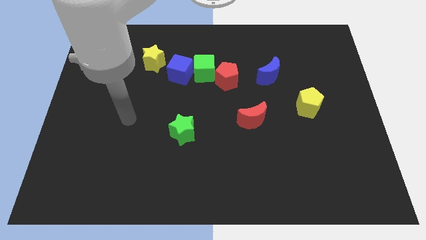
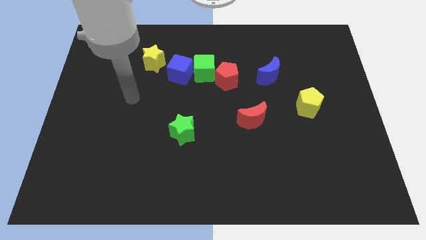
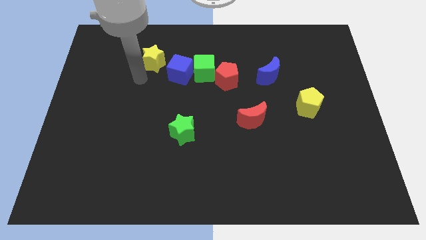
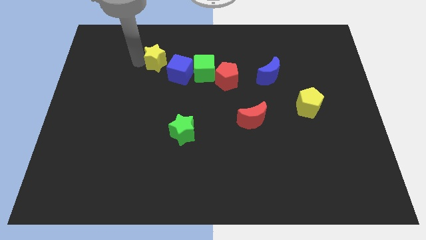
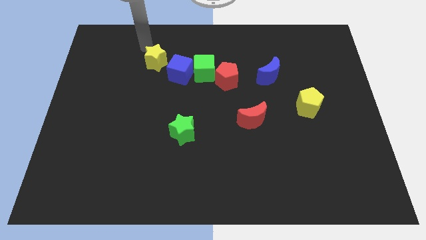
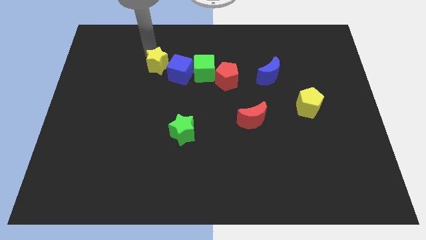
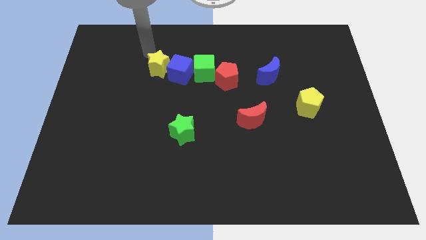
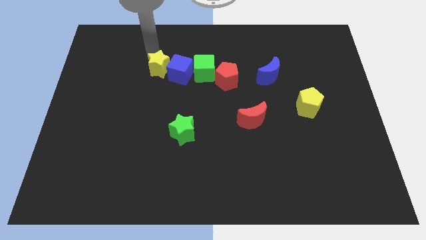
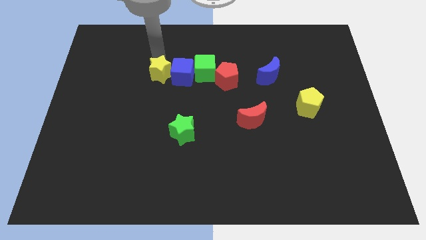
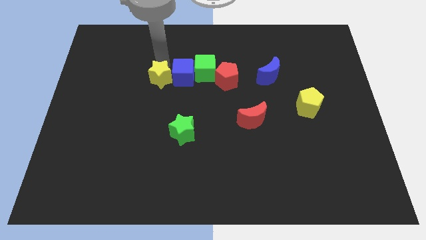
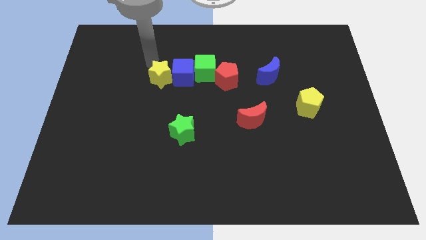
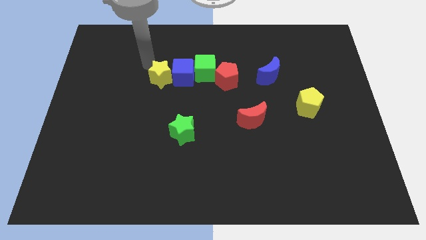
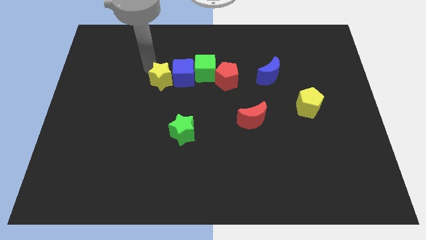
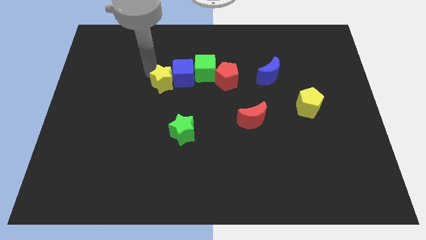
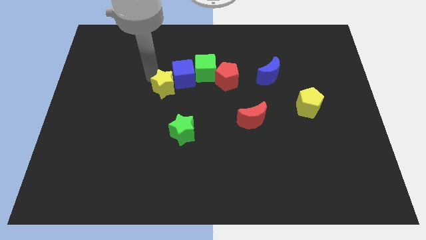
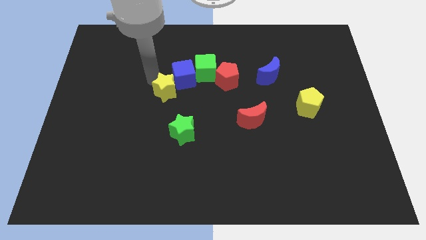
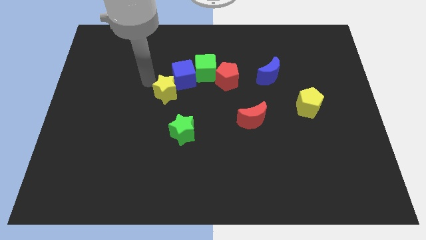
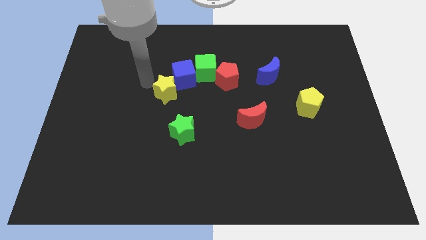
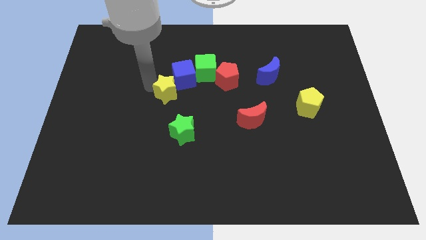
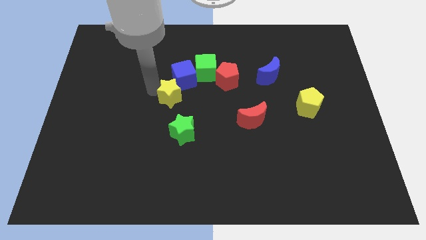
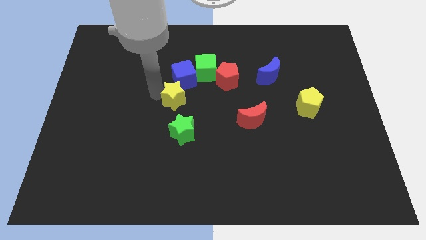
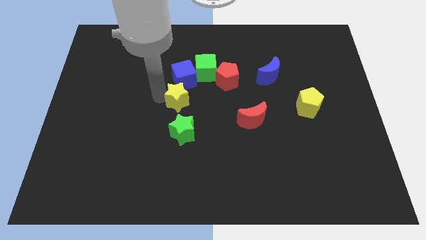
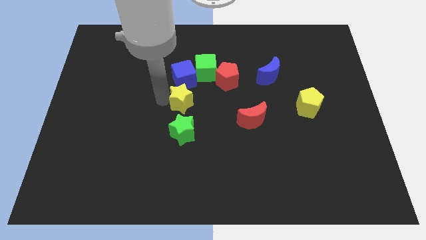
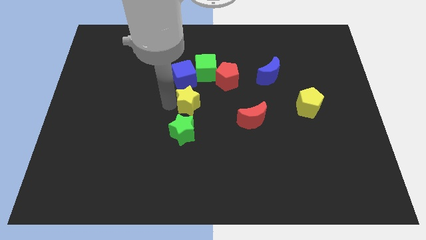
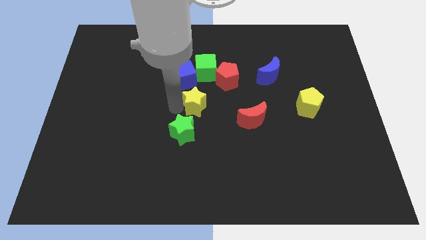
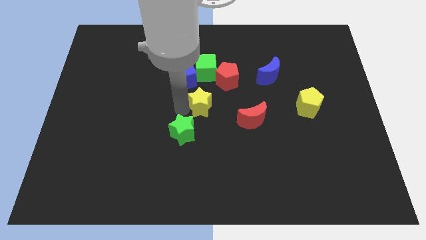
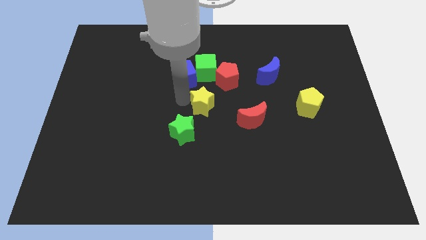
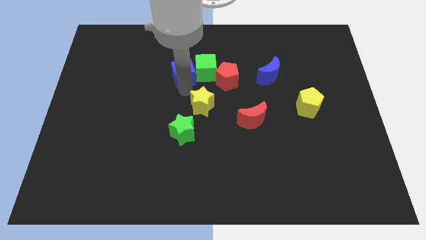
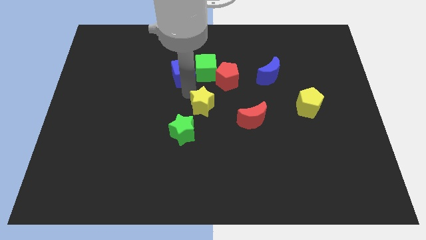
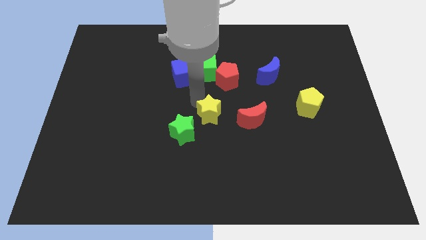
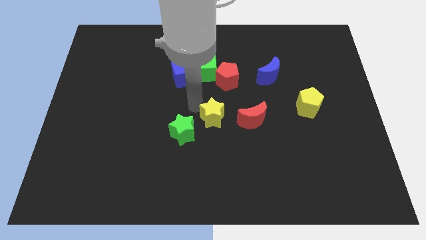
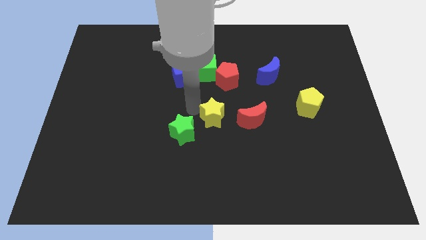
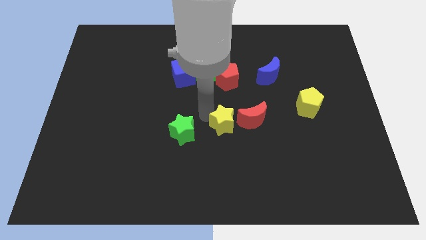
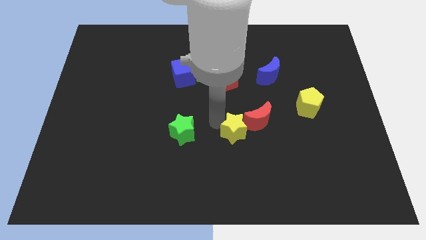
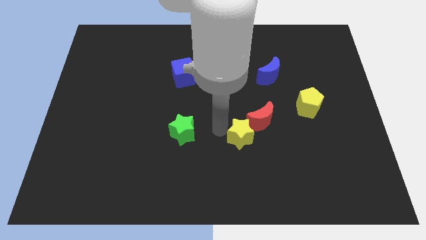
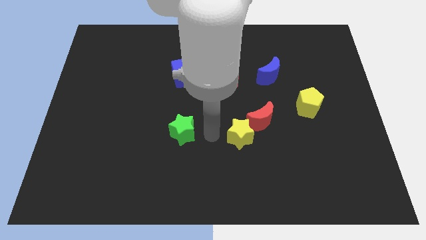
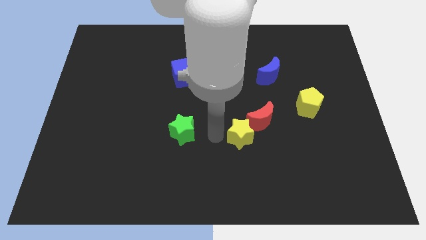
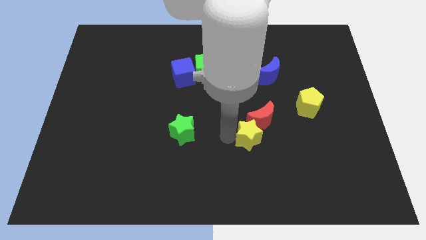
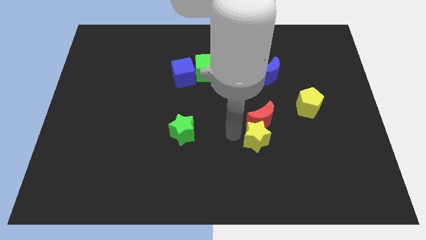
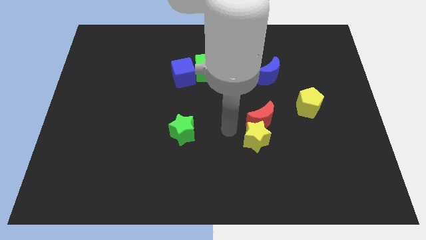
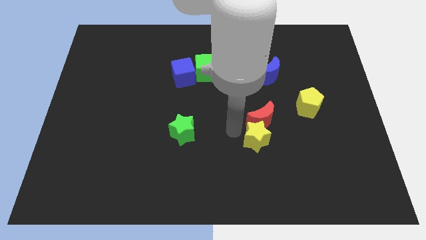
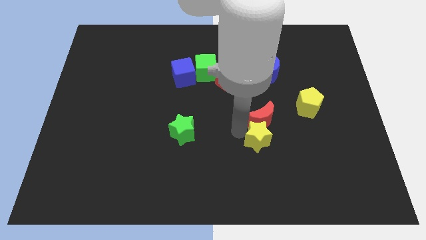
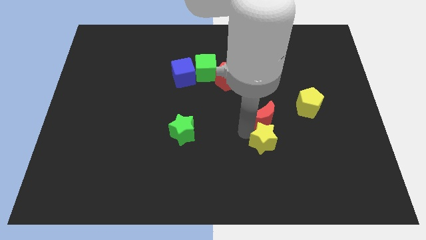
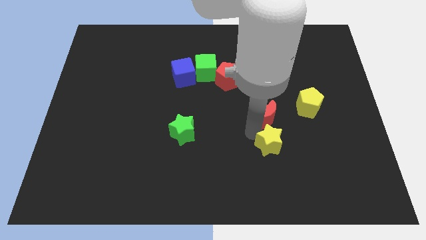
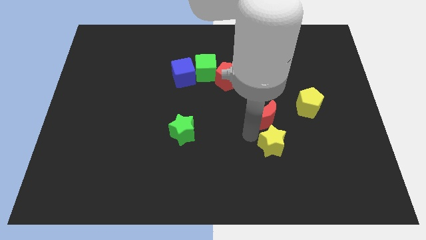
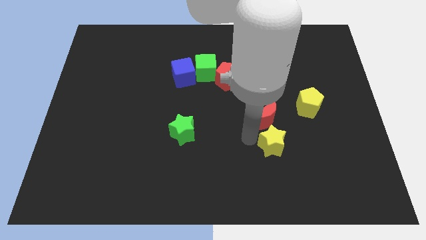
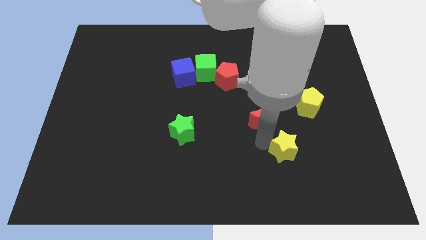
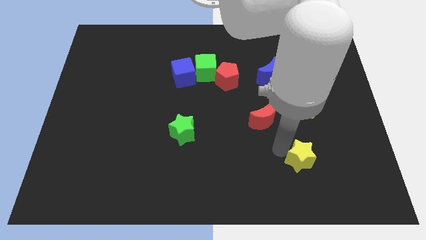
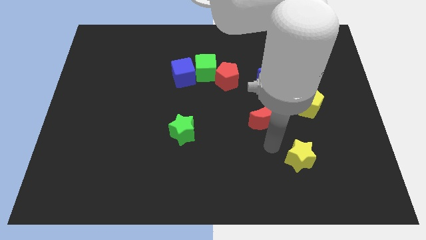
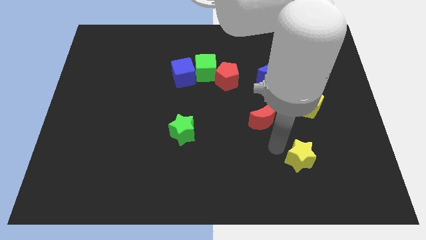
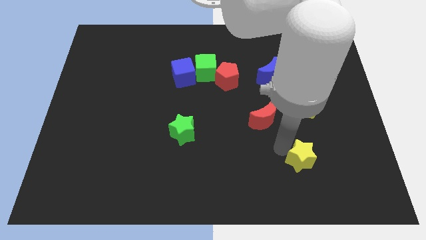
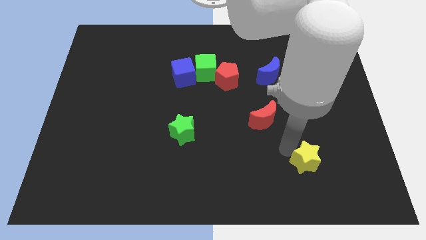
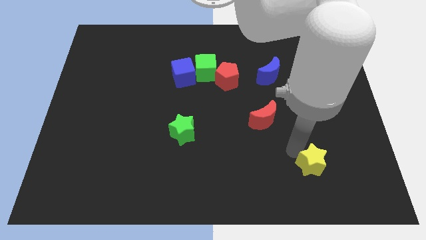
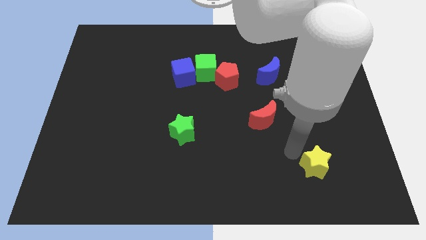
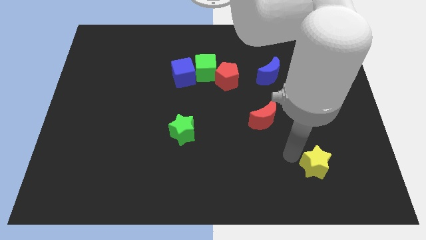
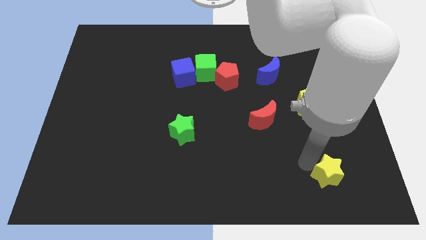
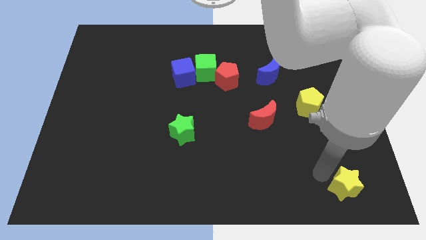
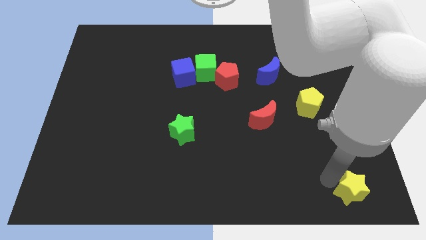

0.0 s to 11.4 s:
slide the yellow star to the lower right corner

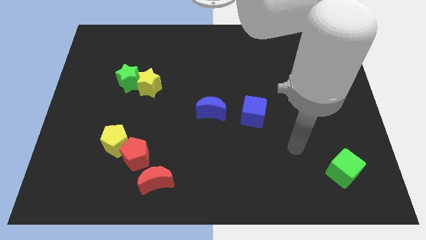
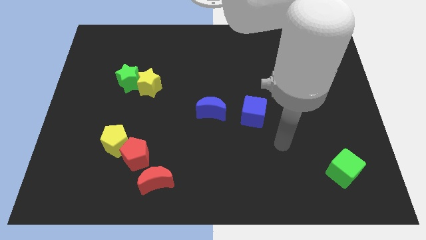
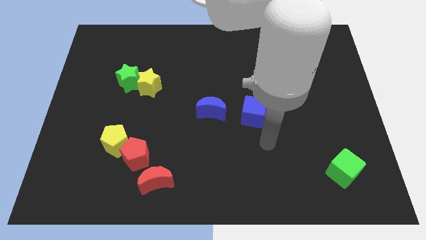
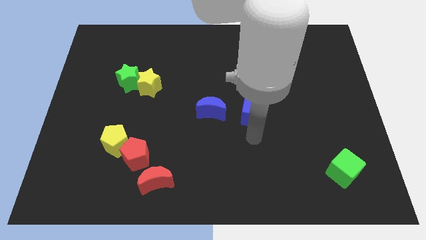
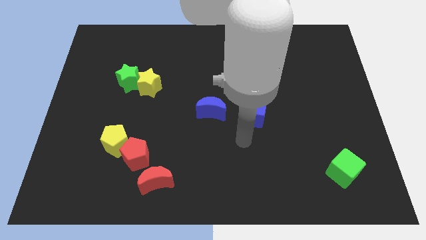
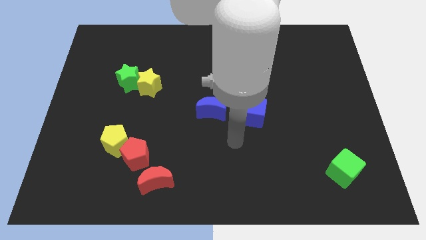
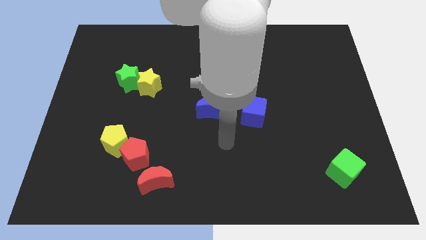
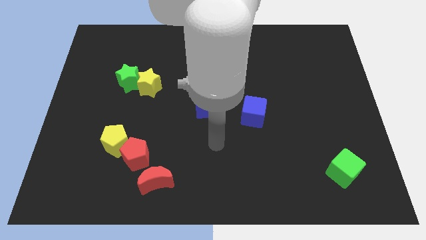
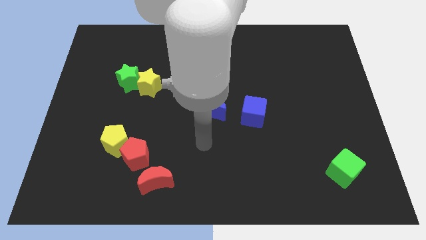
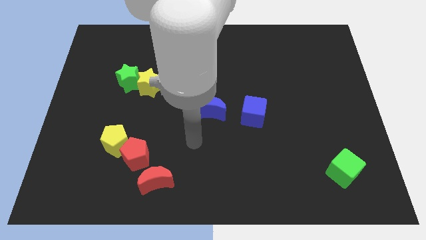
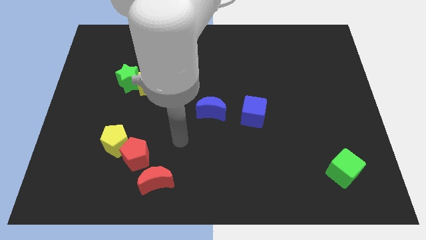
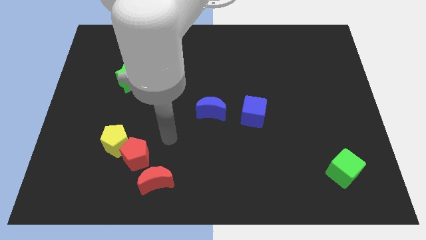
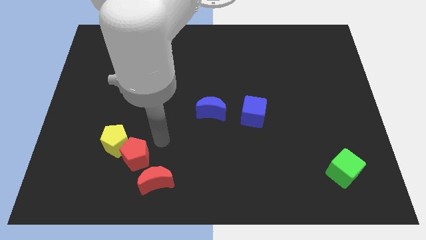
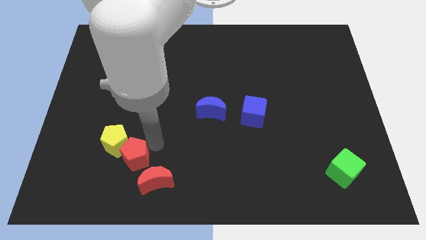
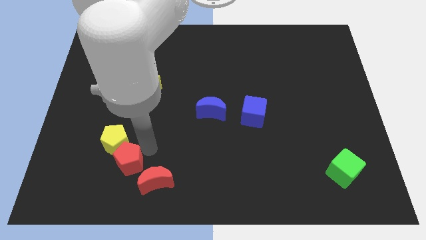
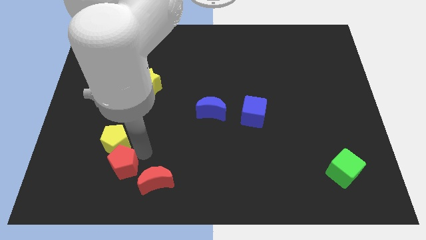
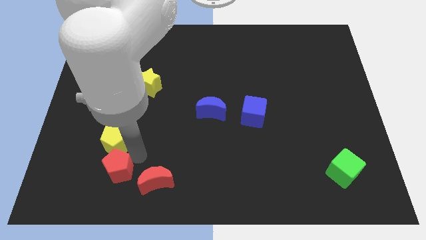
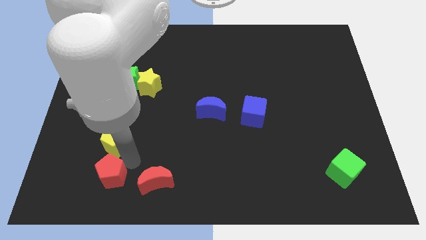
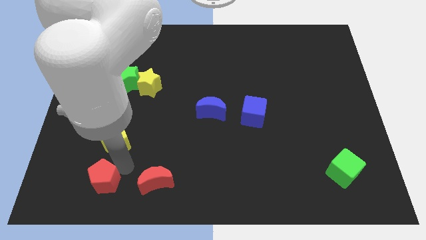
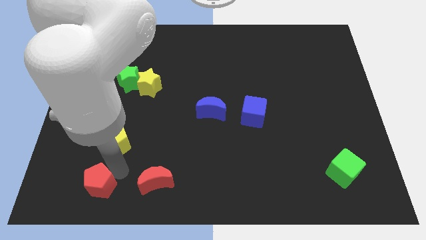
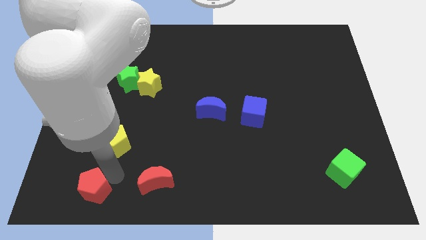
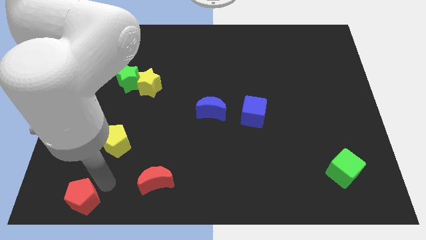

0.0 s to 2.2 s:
move the red pentagon to the bottom left
